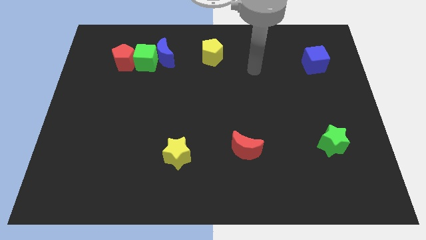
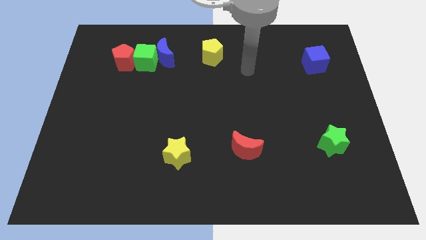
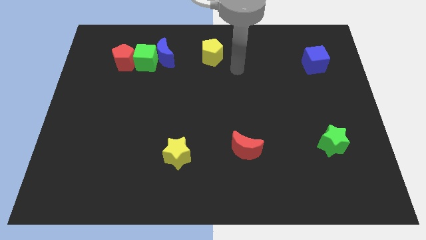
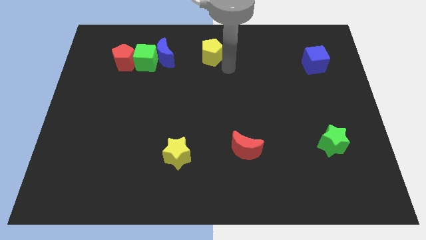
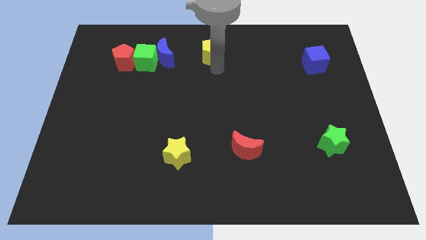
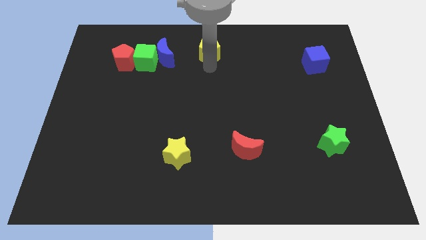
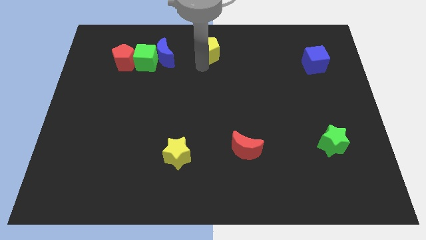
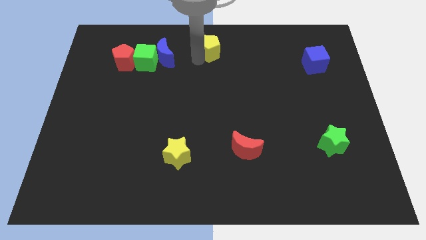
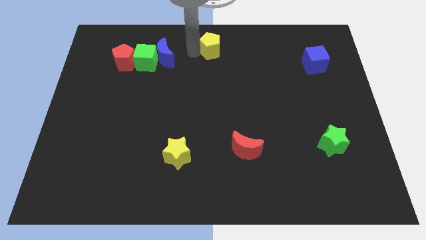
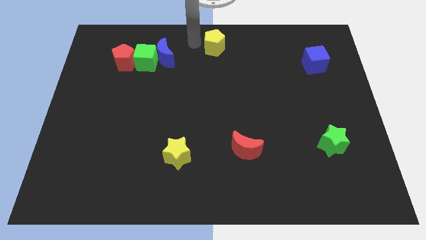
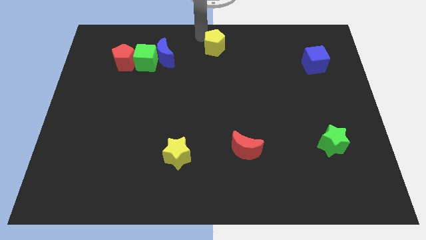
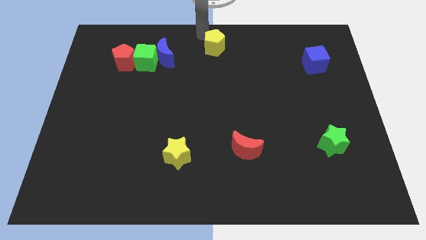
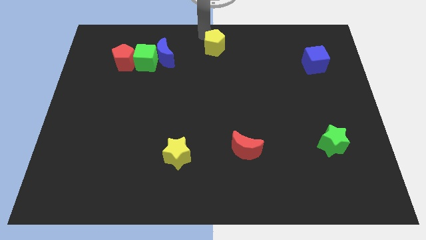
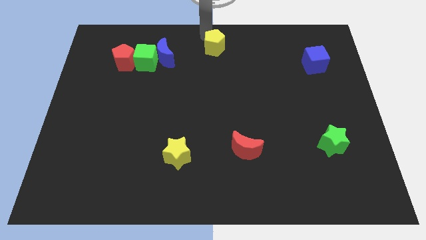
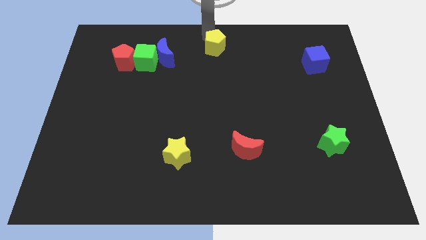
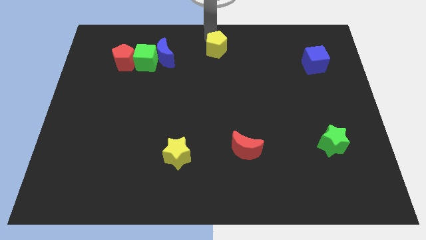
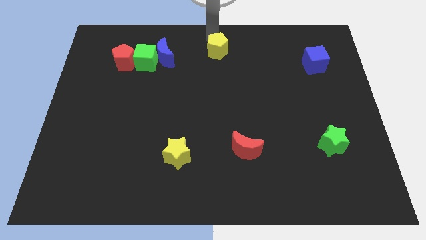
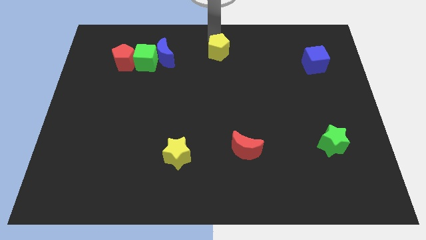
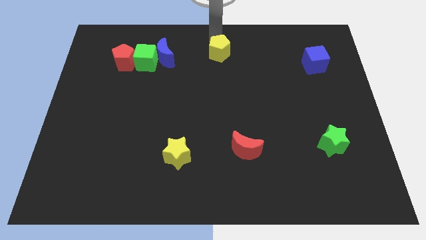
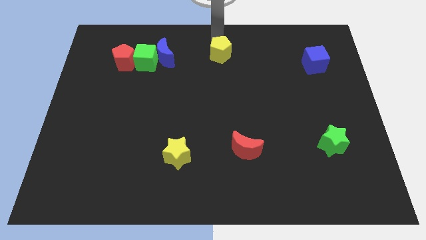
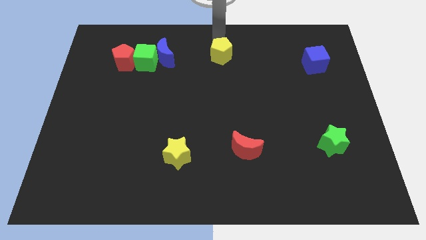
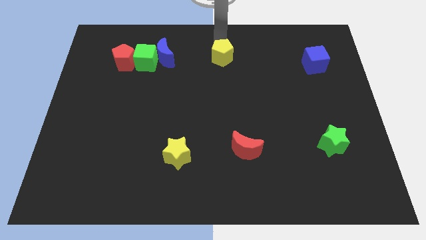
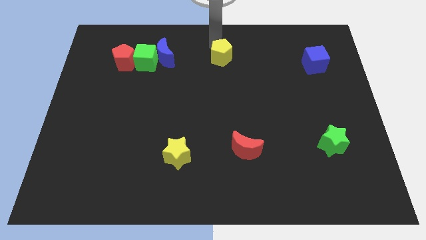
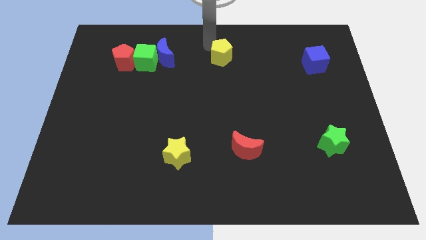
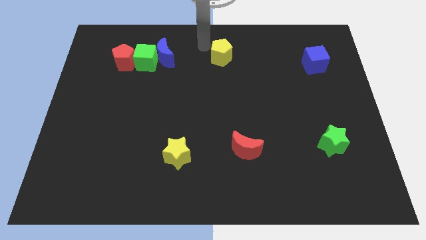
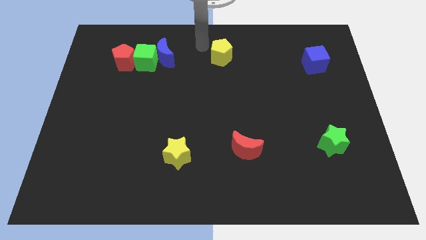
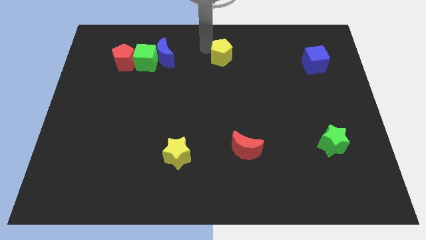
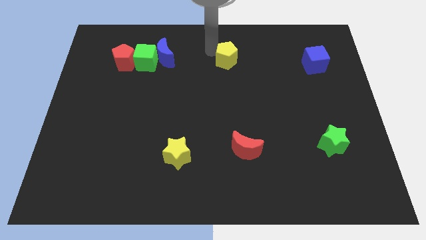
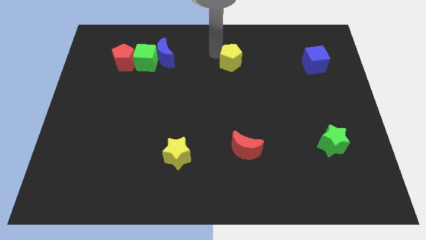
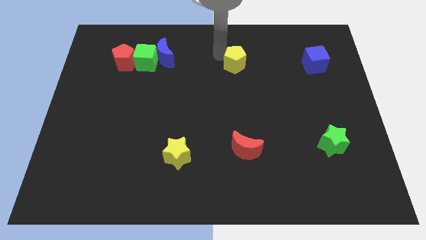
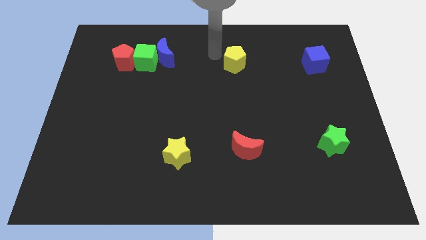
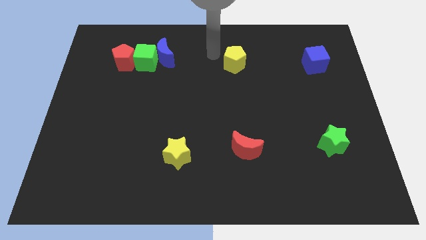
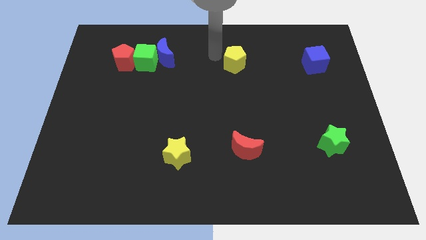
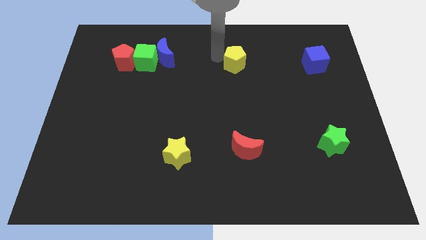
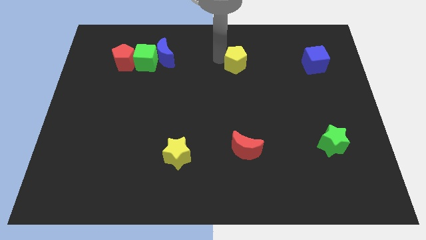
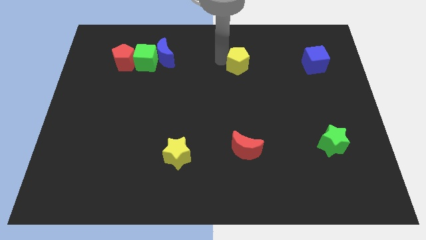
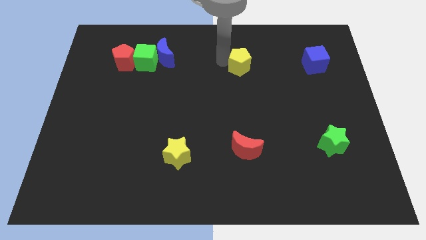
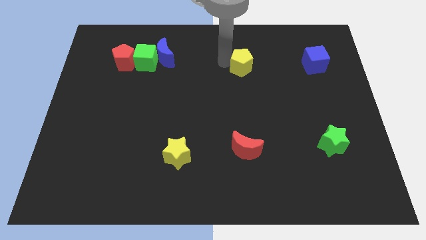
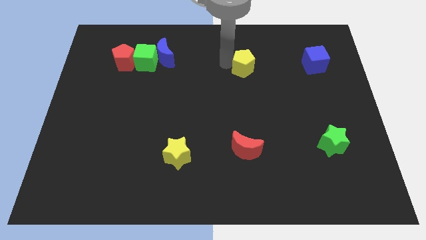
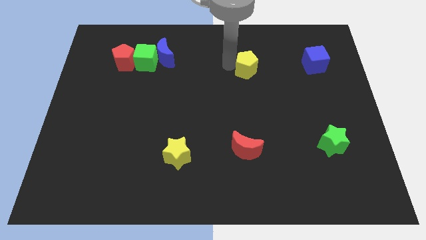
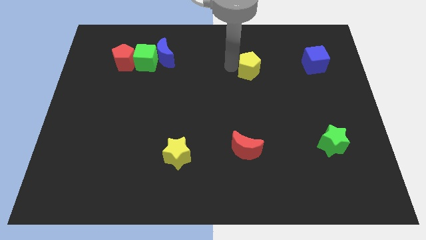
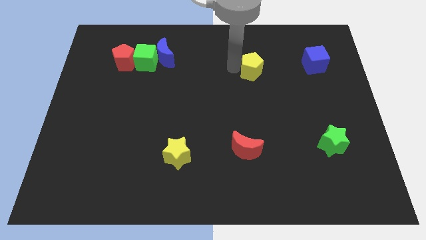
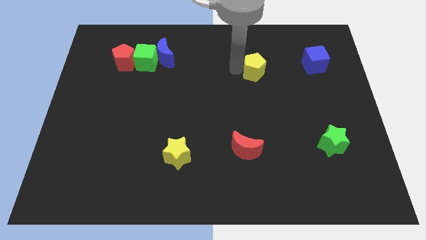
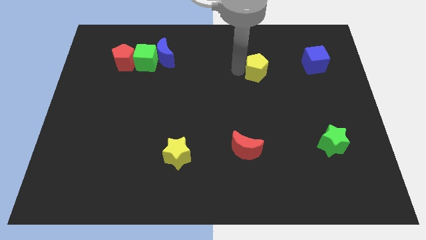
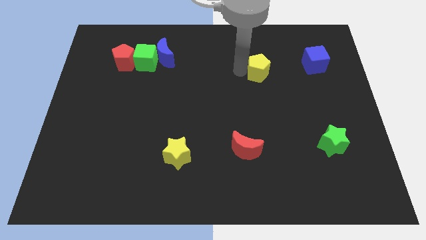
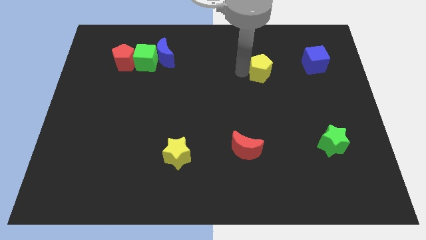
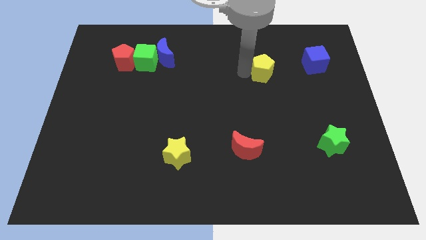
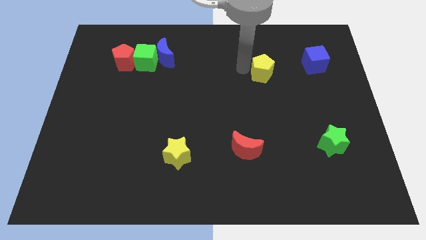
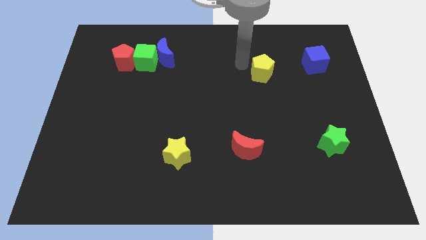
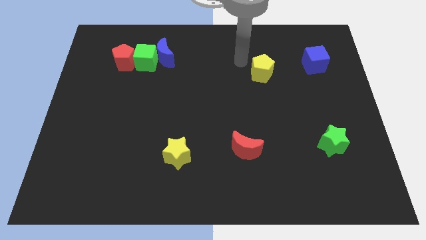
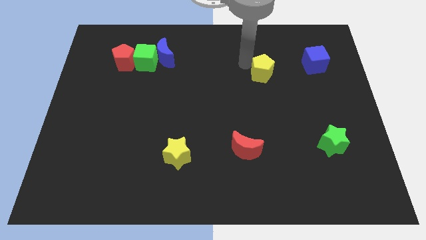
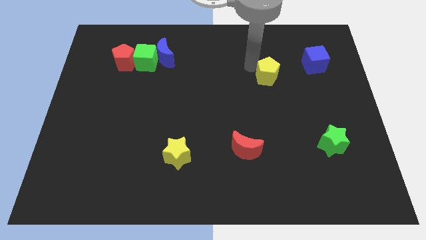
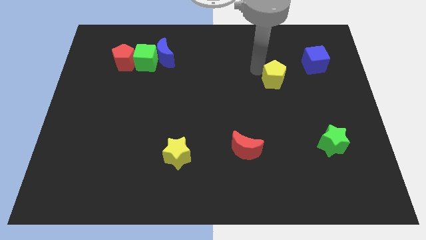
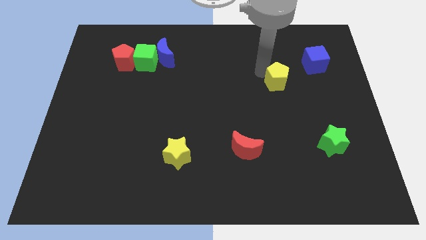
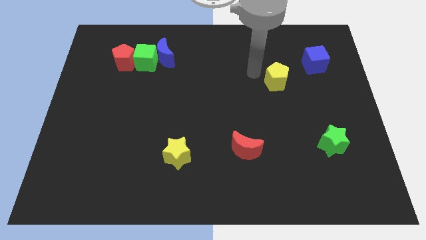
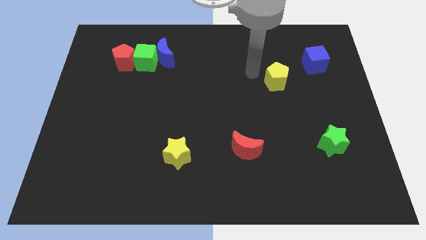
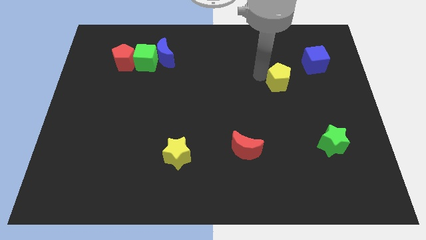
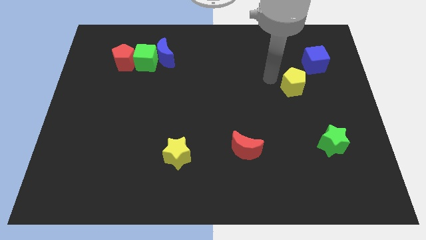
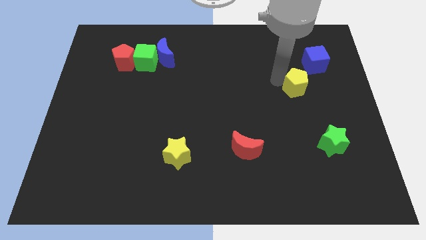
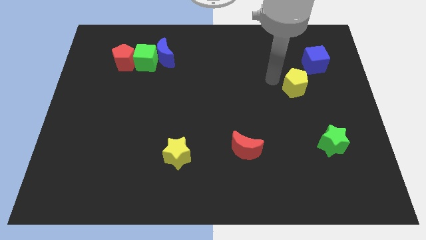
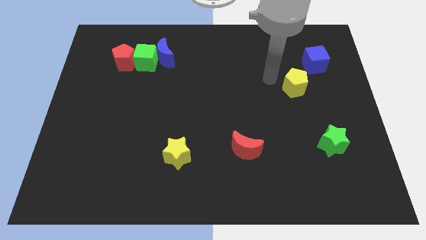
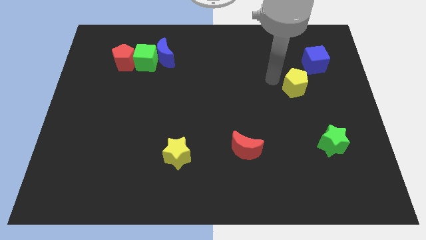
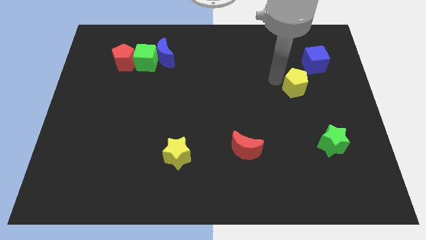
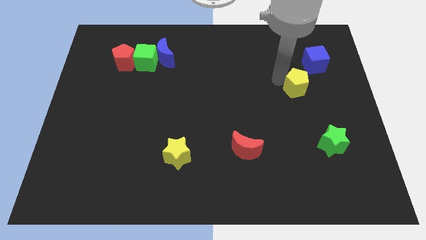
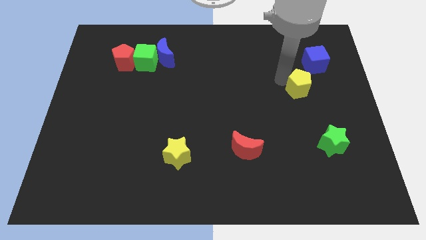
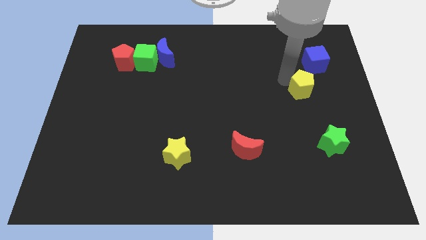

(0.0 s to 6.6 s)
put the yellow pentagon to the bottom side of the blue cube

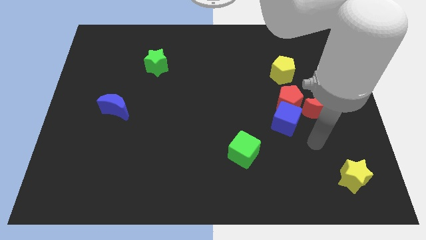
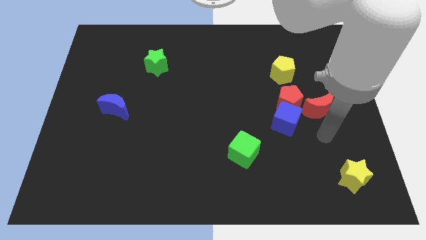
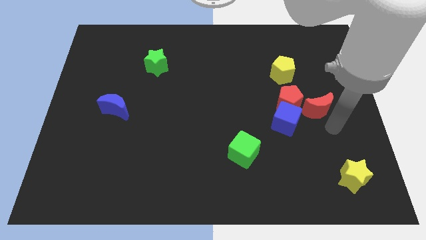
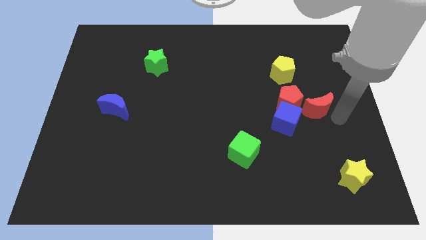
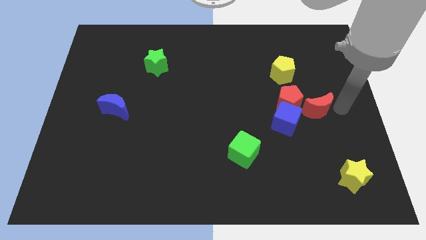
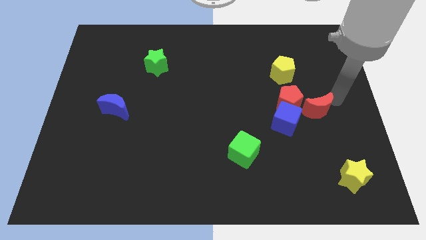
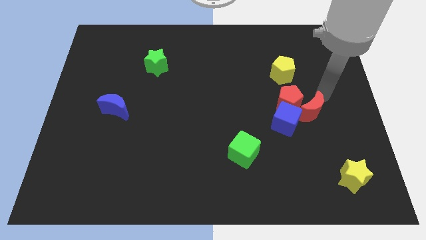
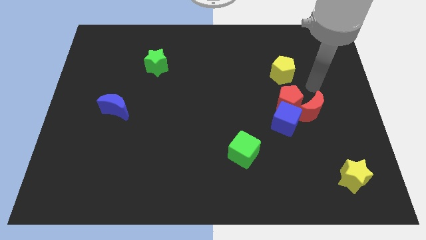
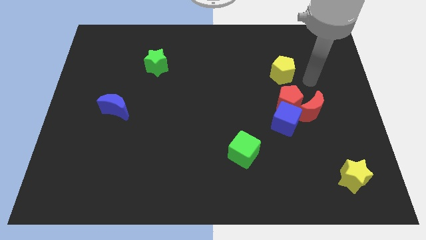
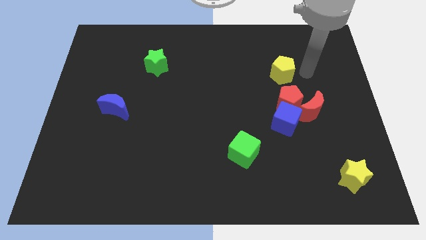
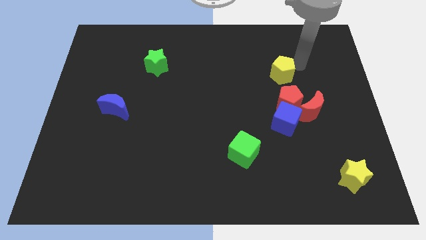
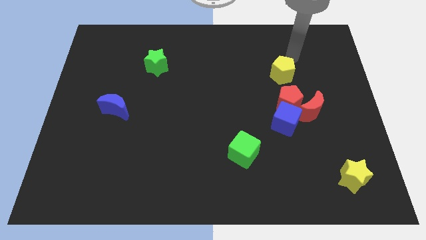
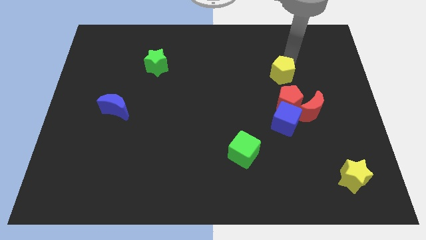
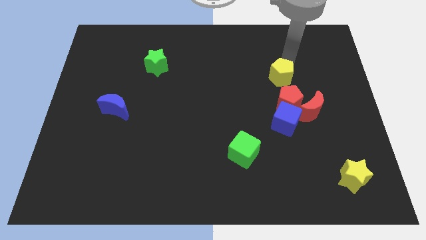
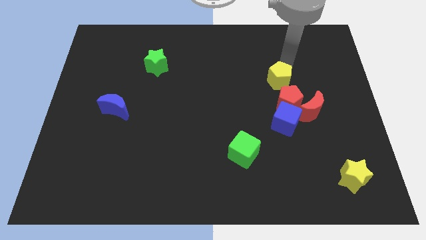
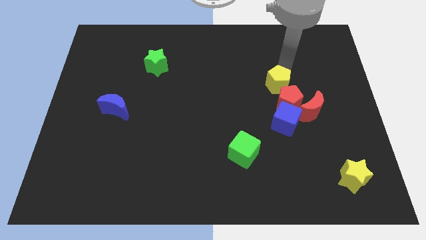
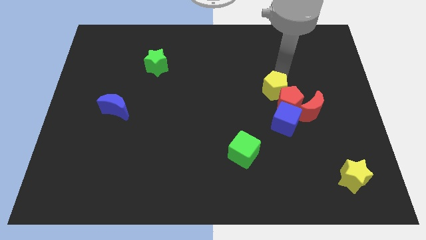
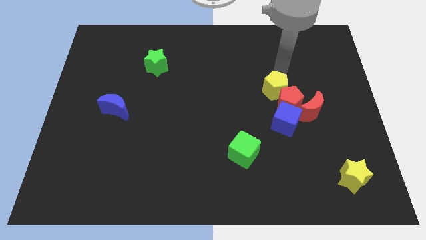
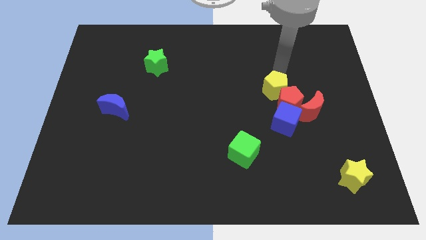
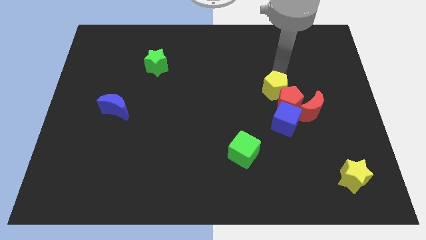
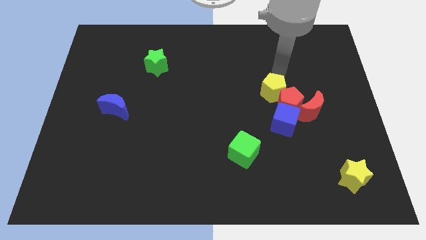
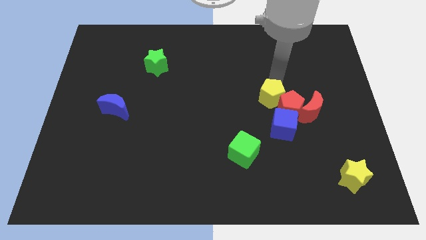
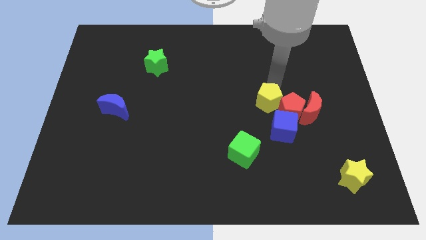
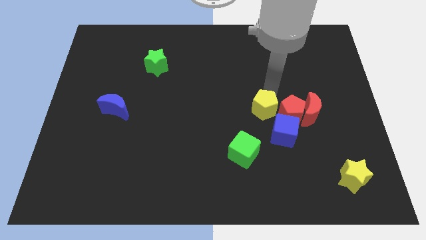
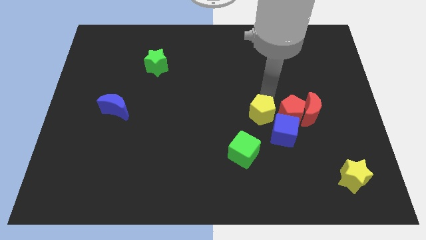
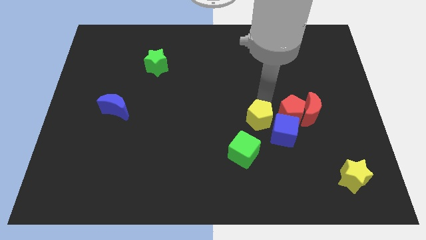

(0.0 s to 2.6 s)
slide the yellow pentagon to the top right side of the green cube
